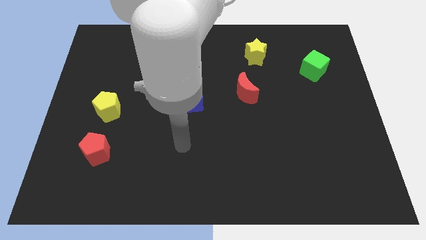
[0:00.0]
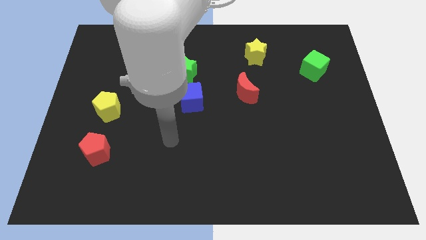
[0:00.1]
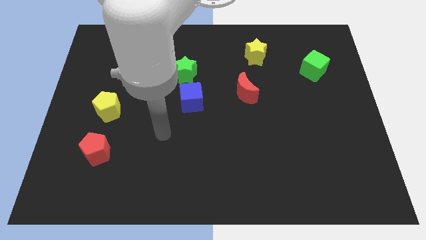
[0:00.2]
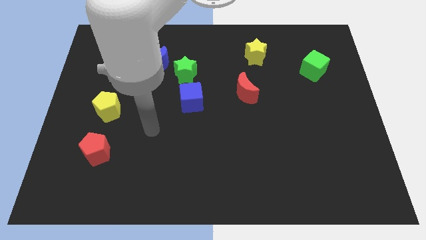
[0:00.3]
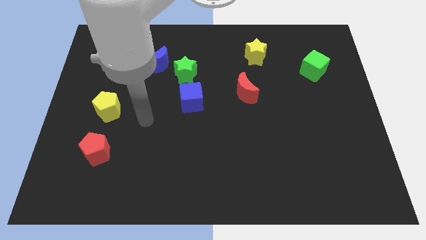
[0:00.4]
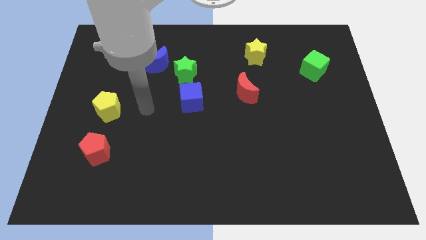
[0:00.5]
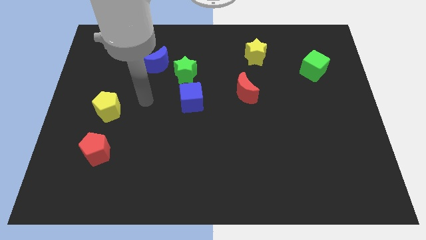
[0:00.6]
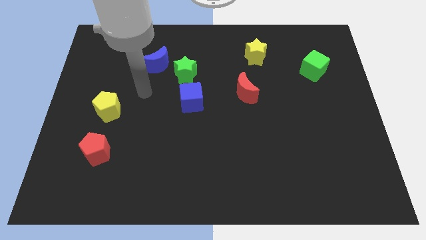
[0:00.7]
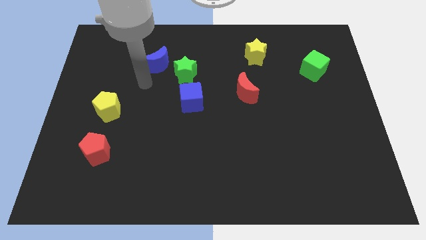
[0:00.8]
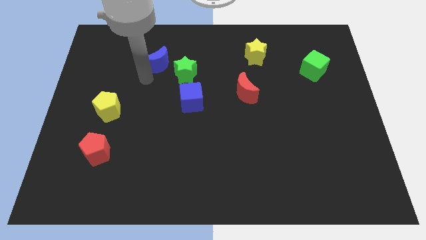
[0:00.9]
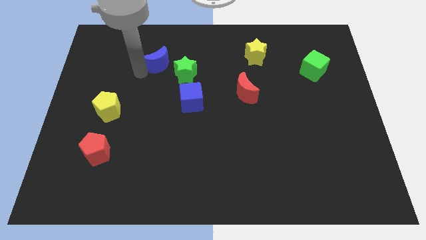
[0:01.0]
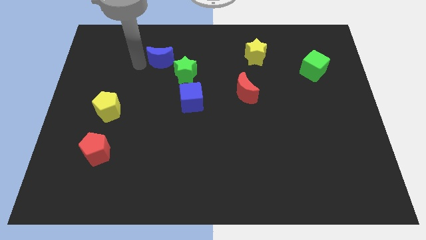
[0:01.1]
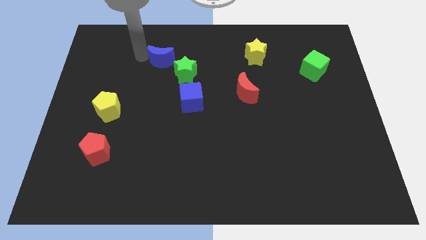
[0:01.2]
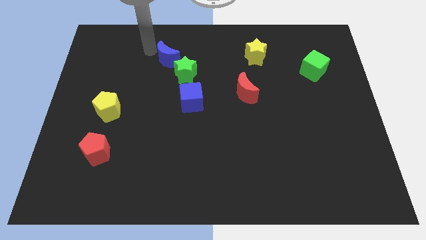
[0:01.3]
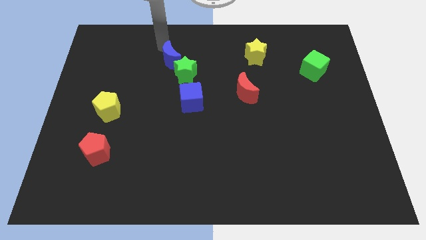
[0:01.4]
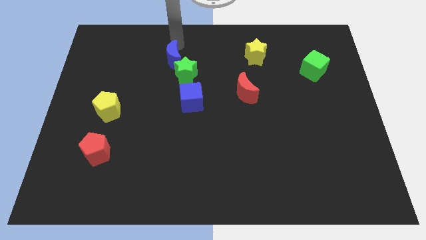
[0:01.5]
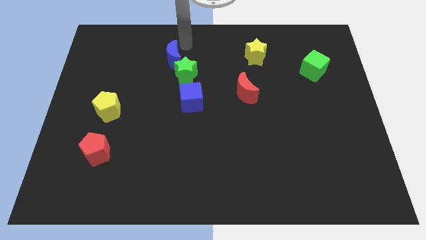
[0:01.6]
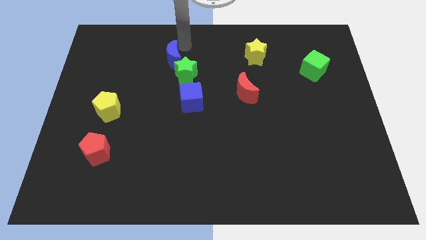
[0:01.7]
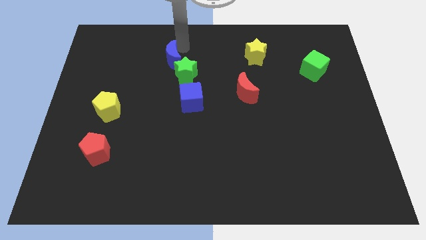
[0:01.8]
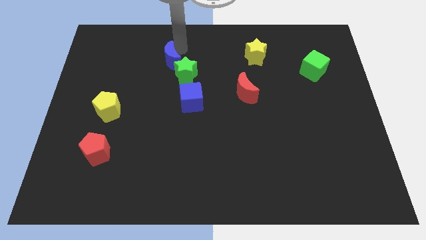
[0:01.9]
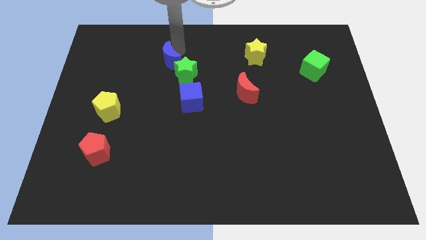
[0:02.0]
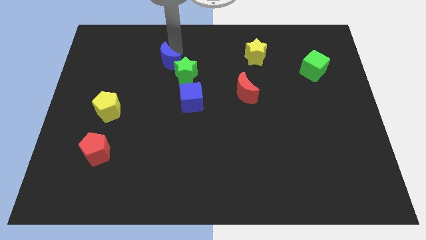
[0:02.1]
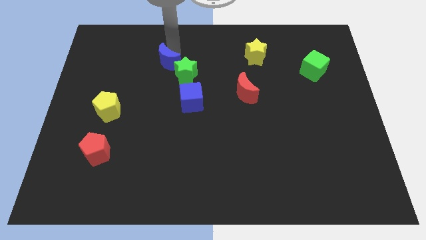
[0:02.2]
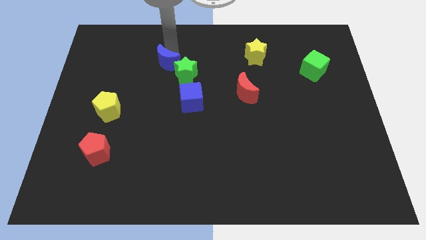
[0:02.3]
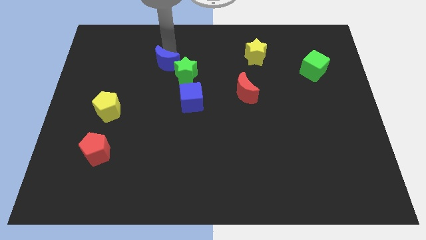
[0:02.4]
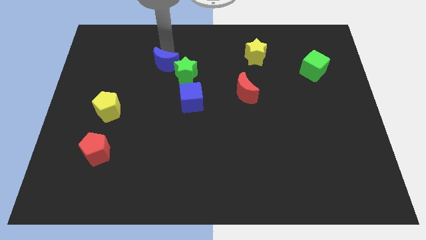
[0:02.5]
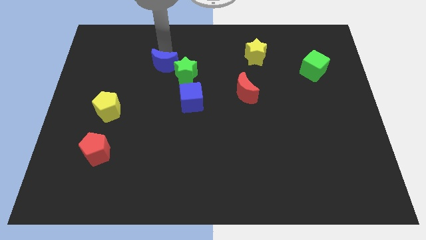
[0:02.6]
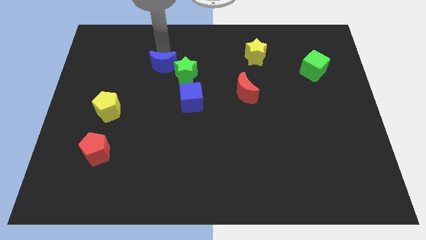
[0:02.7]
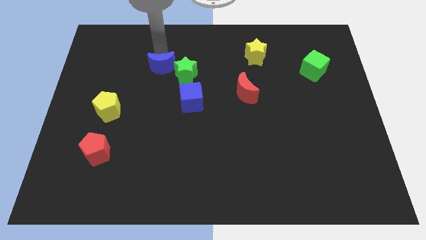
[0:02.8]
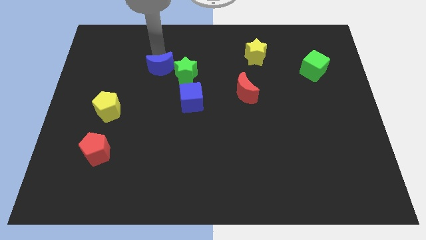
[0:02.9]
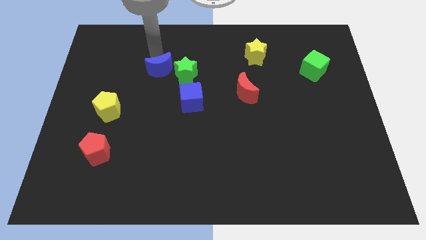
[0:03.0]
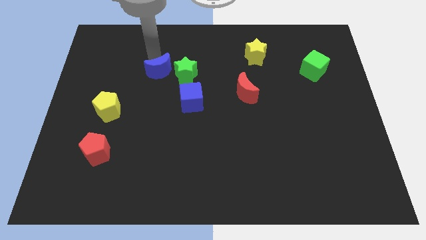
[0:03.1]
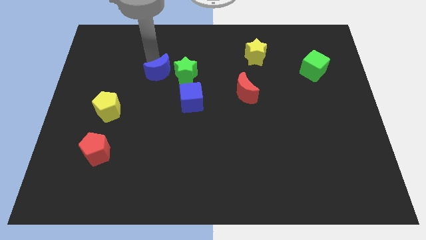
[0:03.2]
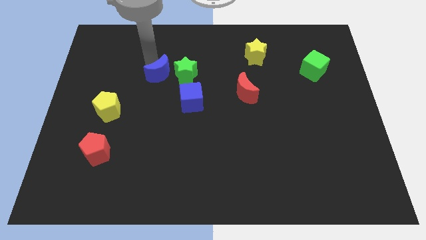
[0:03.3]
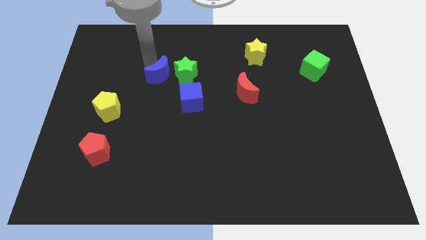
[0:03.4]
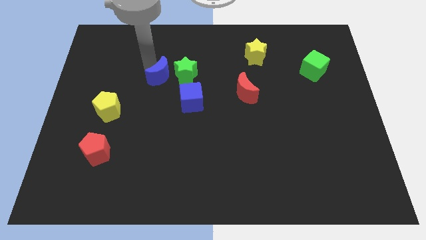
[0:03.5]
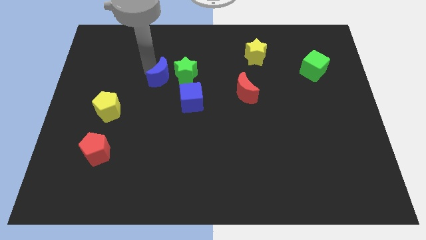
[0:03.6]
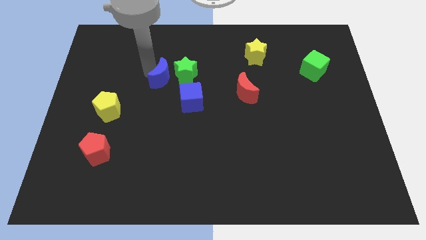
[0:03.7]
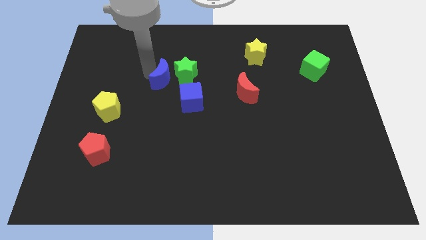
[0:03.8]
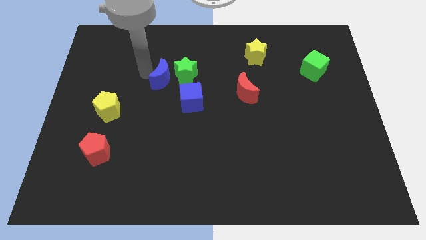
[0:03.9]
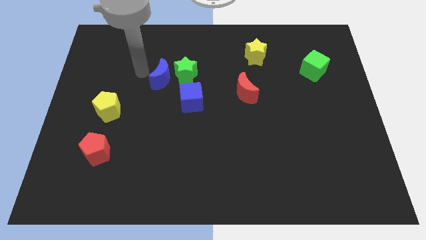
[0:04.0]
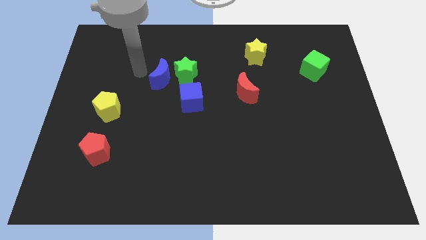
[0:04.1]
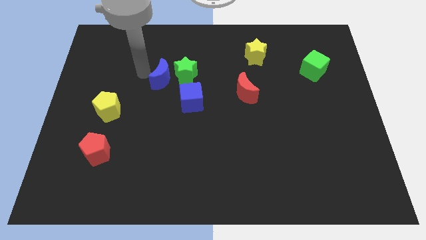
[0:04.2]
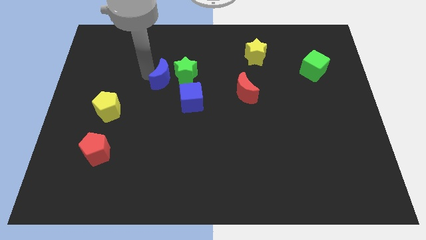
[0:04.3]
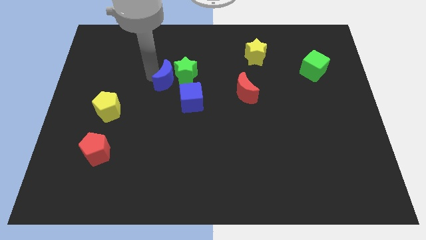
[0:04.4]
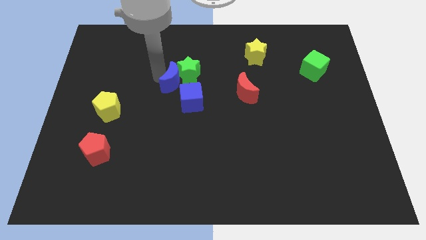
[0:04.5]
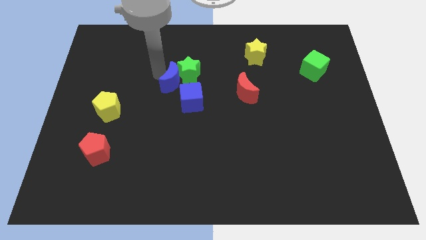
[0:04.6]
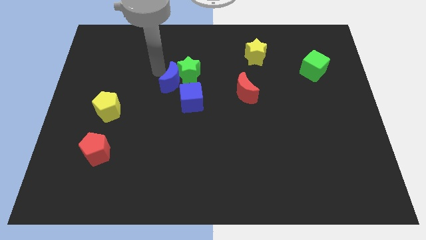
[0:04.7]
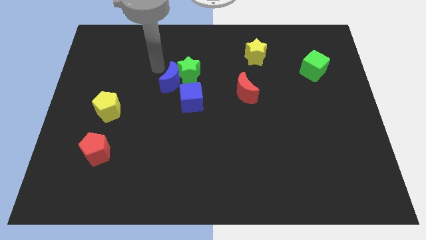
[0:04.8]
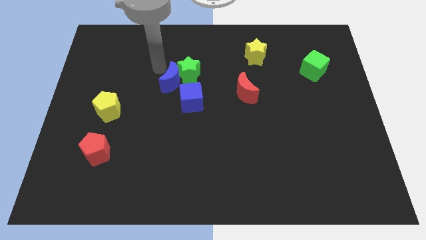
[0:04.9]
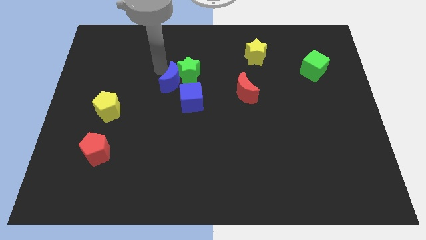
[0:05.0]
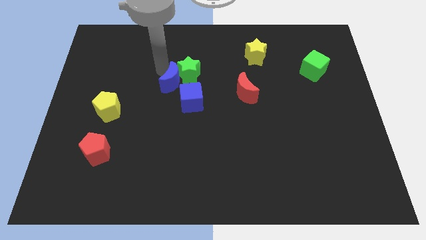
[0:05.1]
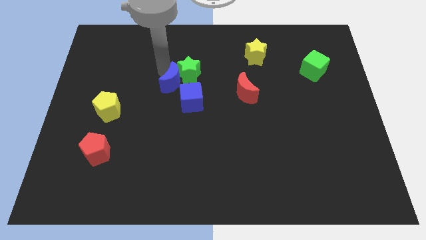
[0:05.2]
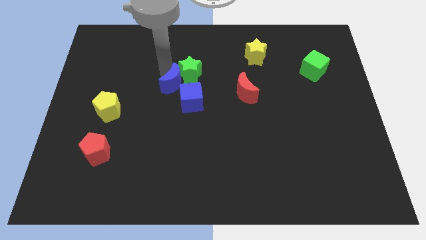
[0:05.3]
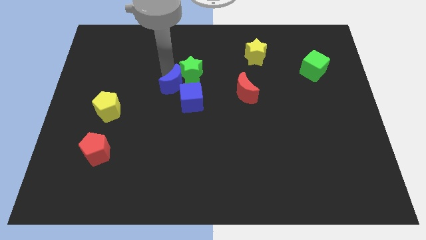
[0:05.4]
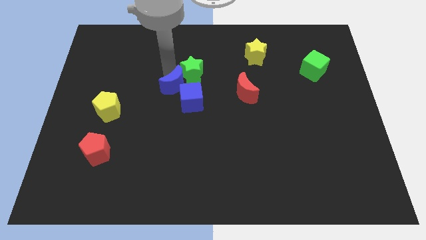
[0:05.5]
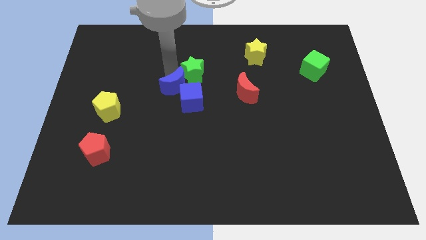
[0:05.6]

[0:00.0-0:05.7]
put the blue moon next to the blue cube

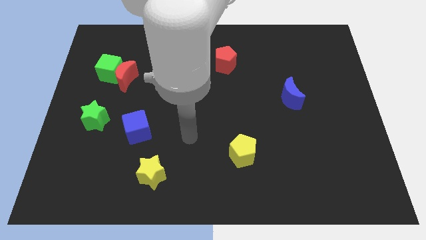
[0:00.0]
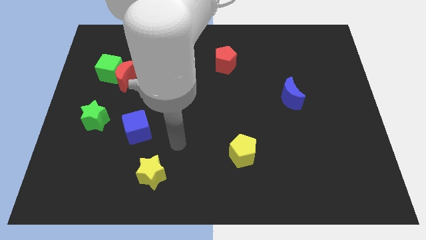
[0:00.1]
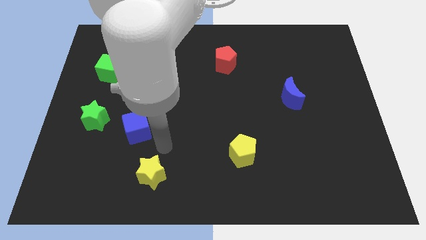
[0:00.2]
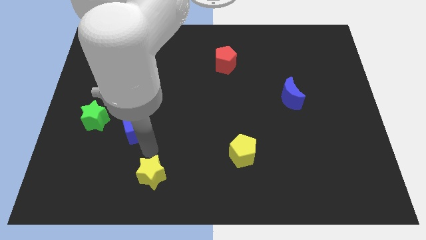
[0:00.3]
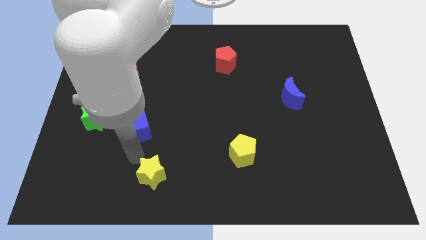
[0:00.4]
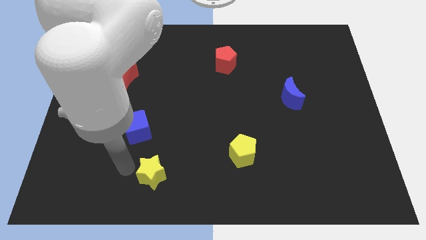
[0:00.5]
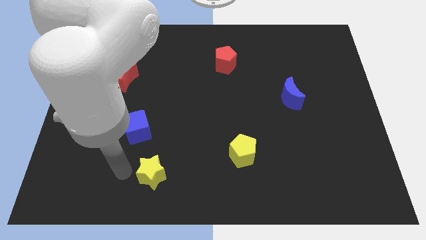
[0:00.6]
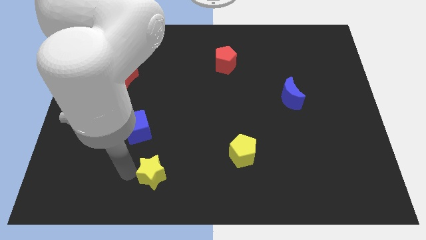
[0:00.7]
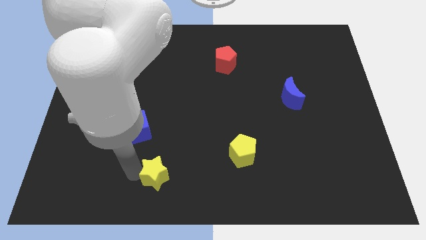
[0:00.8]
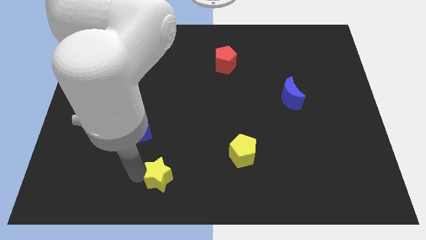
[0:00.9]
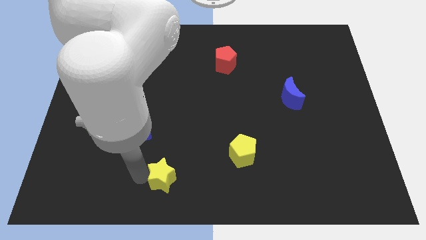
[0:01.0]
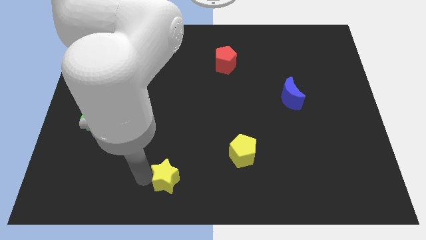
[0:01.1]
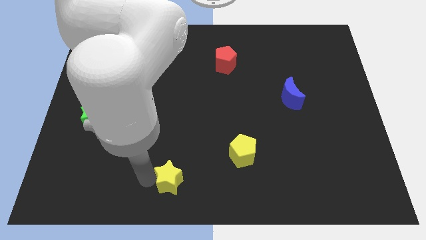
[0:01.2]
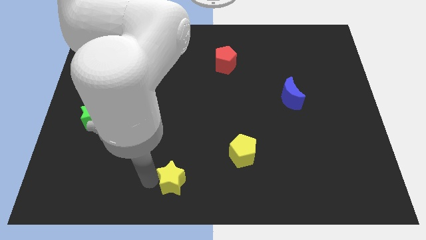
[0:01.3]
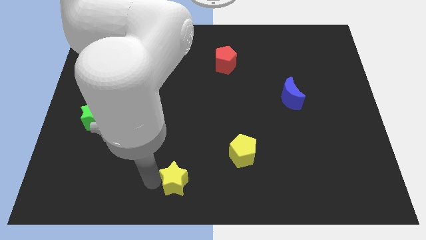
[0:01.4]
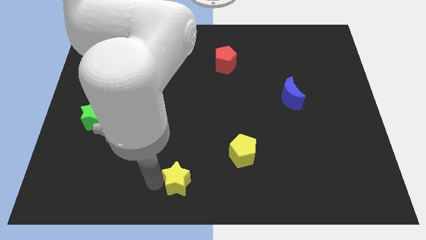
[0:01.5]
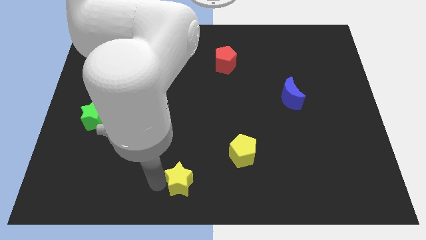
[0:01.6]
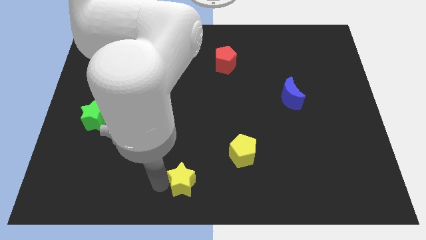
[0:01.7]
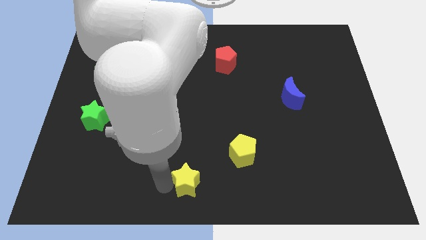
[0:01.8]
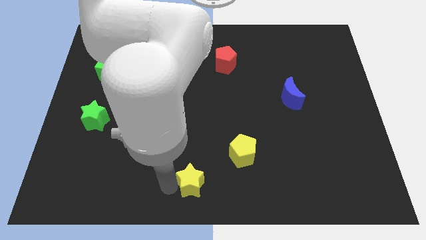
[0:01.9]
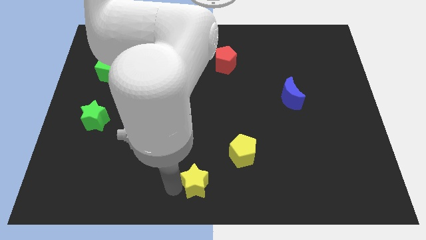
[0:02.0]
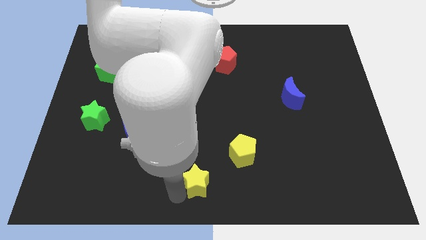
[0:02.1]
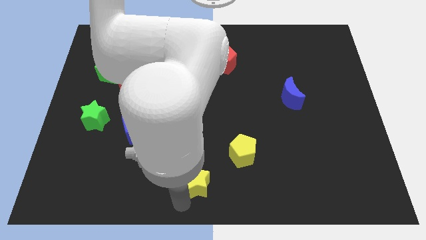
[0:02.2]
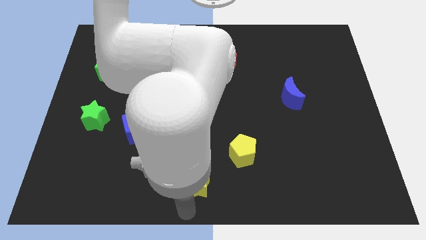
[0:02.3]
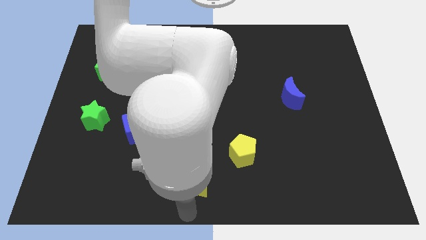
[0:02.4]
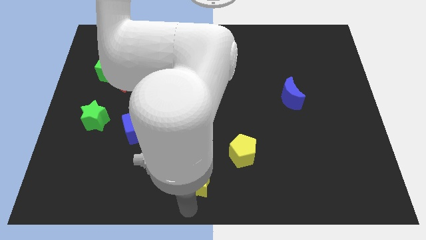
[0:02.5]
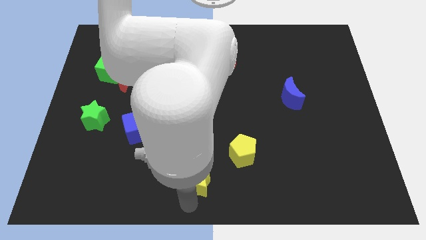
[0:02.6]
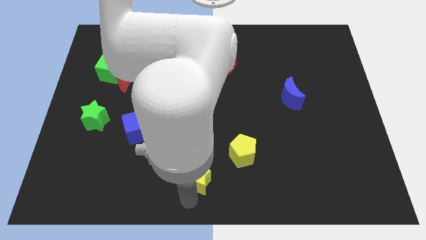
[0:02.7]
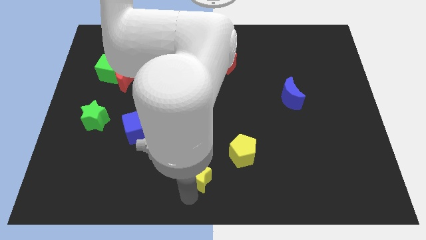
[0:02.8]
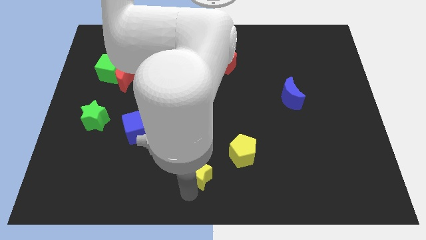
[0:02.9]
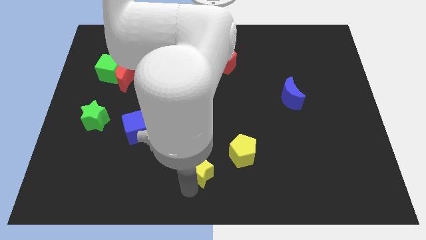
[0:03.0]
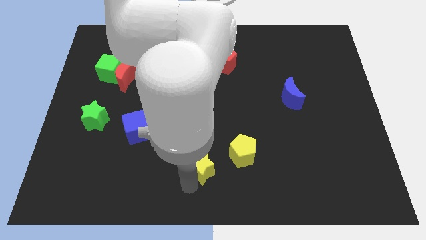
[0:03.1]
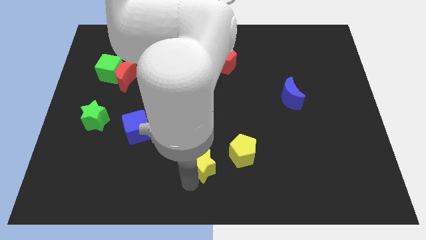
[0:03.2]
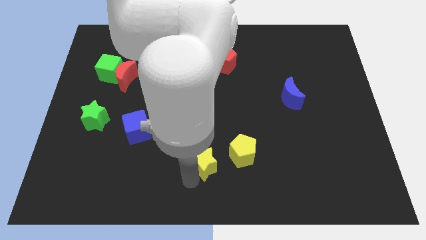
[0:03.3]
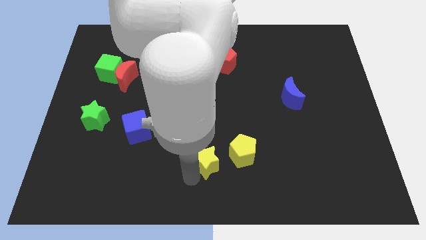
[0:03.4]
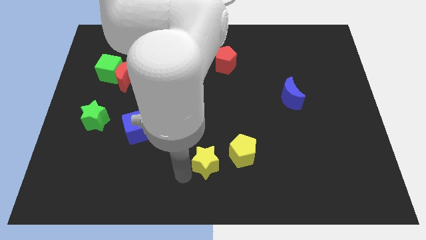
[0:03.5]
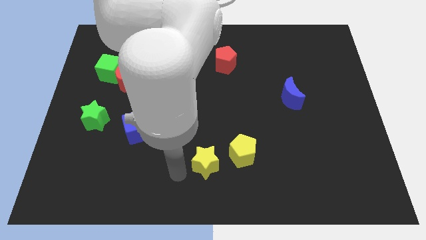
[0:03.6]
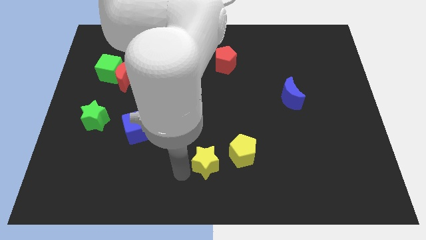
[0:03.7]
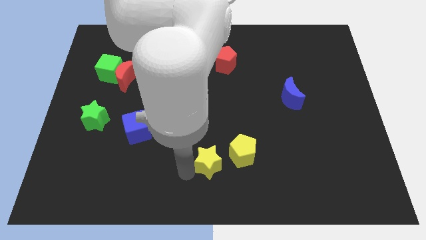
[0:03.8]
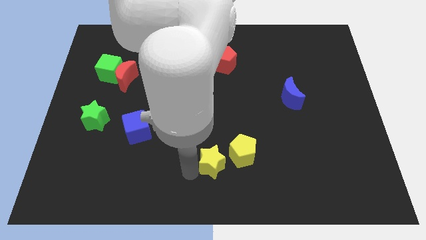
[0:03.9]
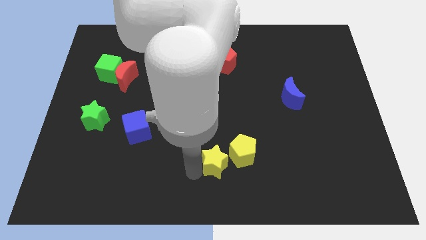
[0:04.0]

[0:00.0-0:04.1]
push the yellow star to the yellow pentagon
